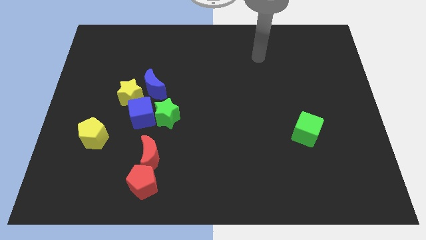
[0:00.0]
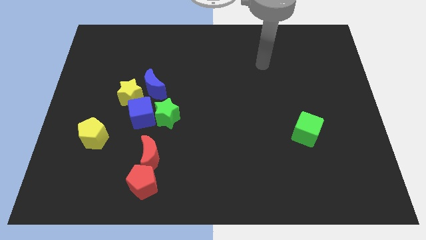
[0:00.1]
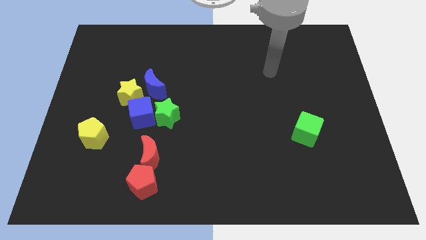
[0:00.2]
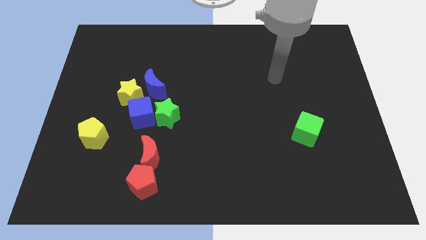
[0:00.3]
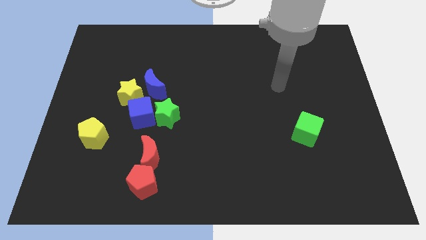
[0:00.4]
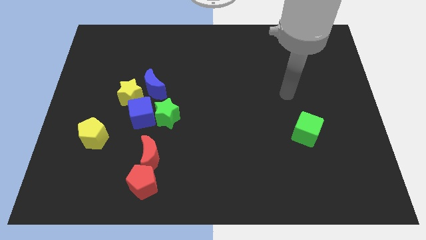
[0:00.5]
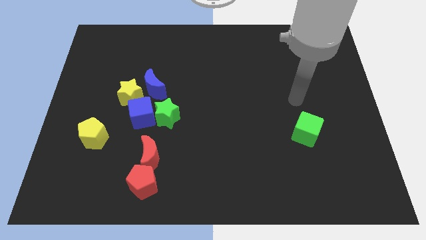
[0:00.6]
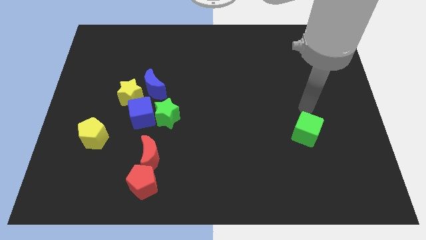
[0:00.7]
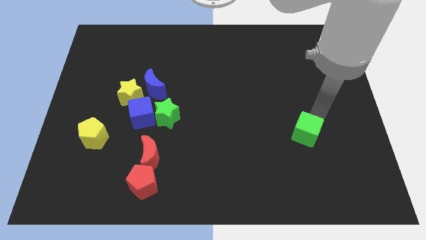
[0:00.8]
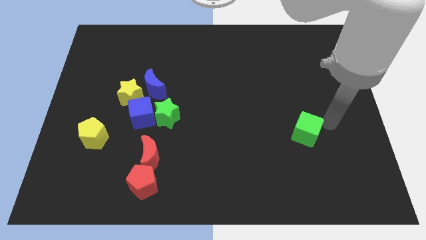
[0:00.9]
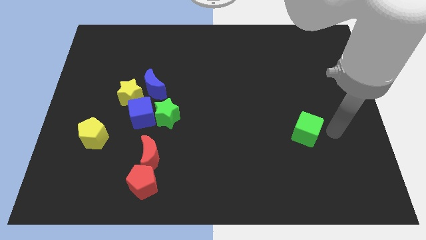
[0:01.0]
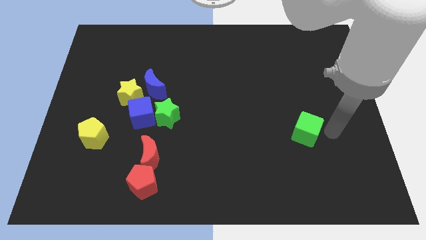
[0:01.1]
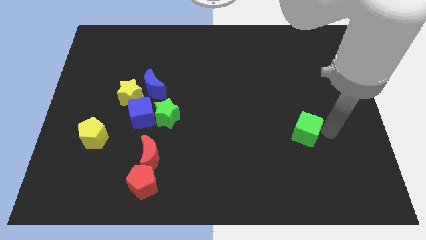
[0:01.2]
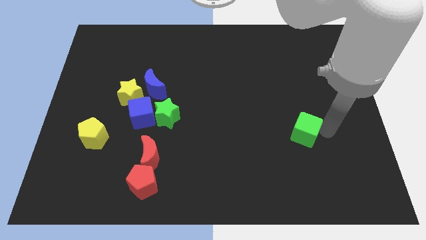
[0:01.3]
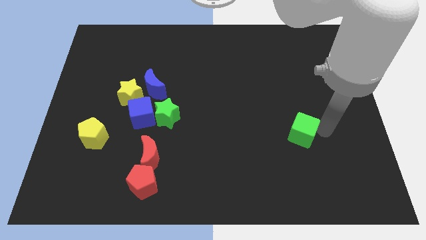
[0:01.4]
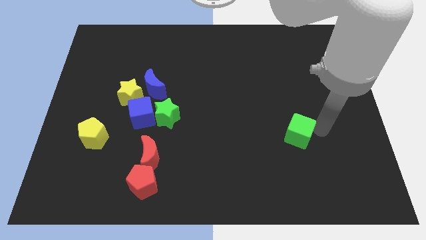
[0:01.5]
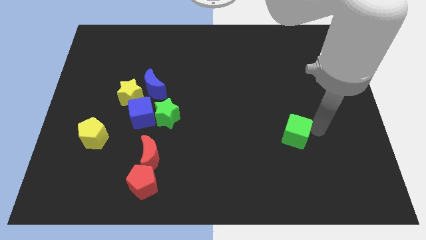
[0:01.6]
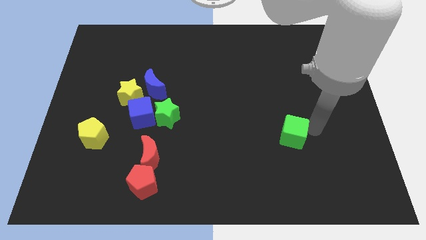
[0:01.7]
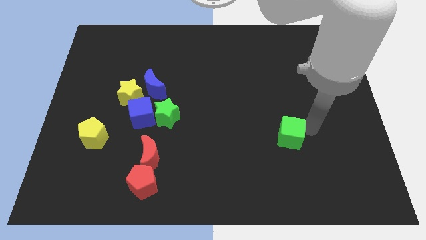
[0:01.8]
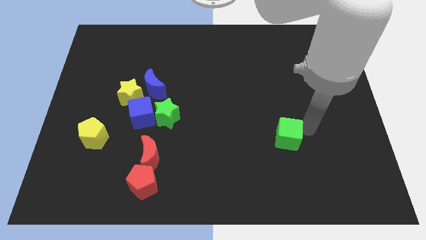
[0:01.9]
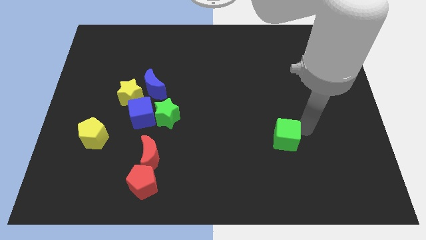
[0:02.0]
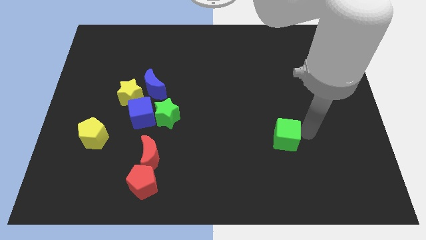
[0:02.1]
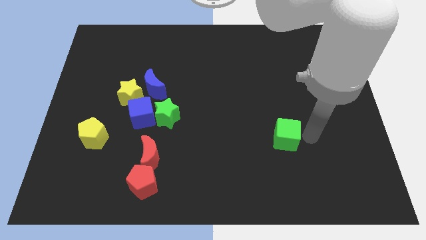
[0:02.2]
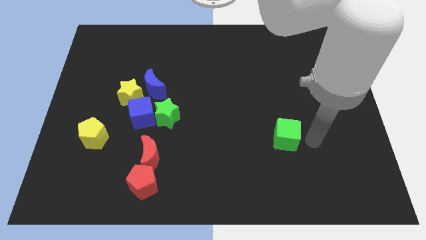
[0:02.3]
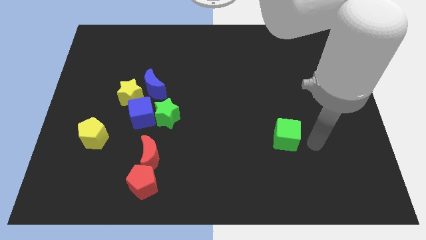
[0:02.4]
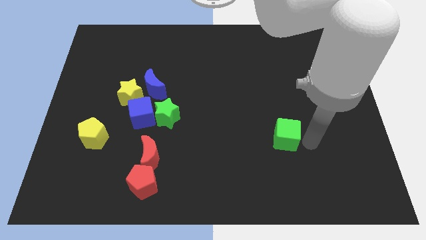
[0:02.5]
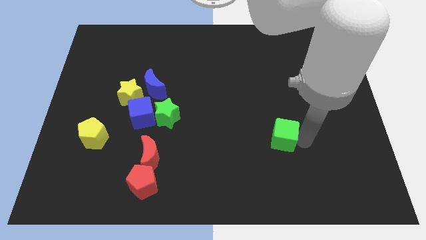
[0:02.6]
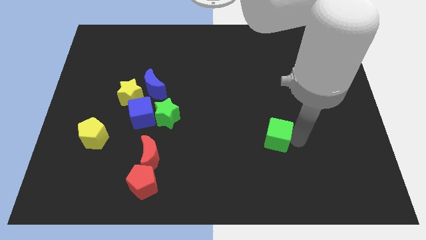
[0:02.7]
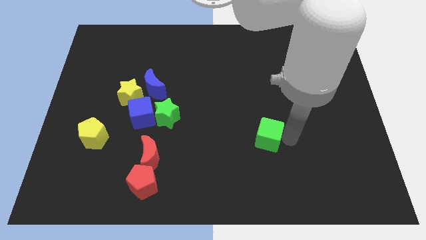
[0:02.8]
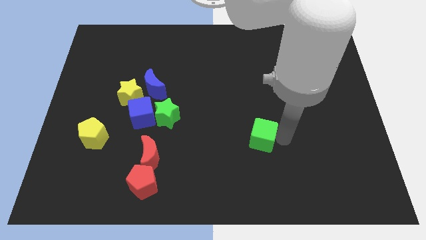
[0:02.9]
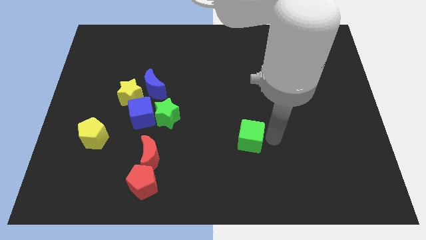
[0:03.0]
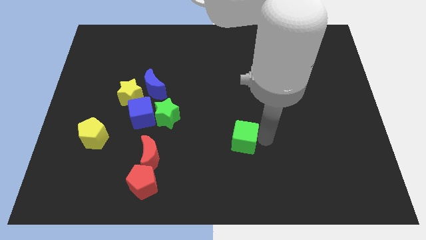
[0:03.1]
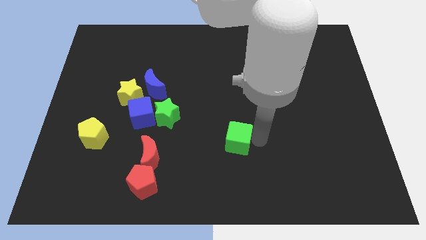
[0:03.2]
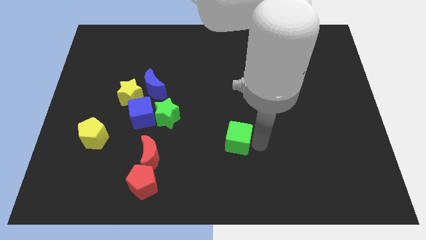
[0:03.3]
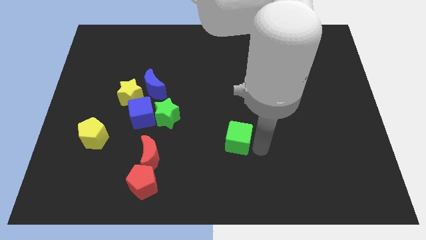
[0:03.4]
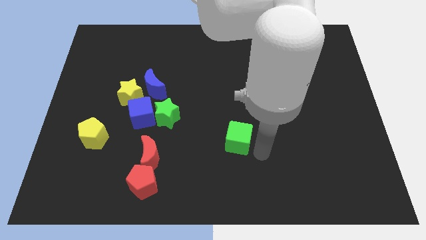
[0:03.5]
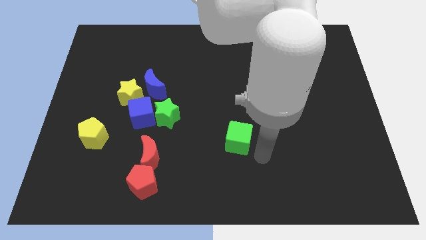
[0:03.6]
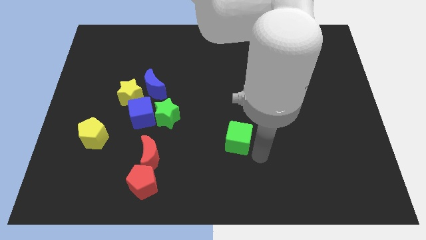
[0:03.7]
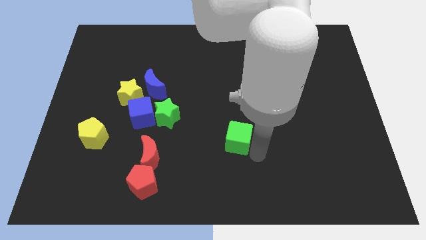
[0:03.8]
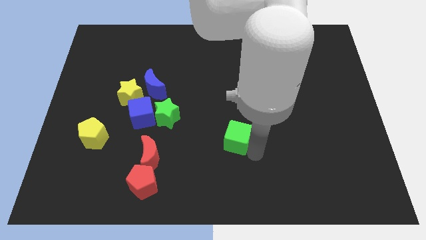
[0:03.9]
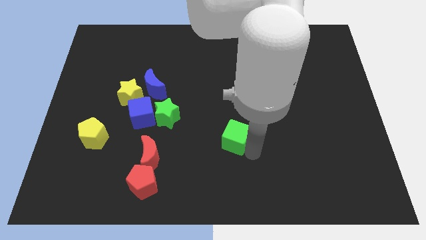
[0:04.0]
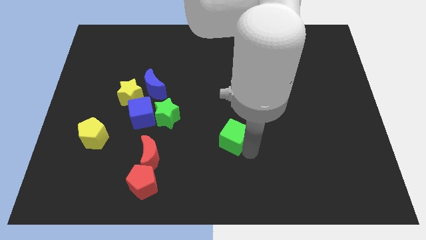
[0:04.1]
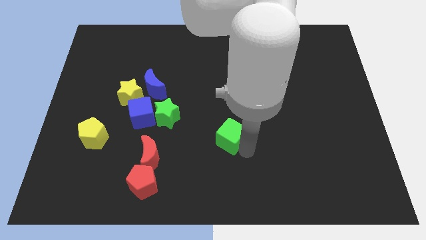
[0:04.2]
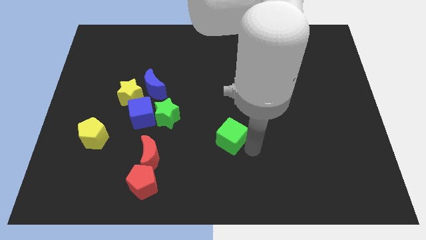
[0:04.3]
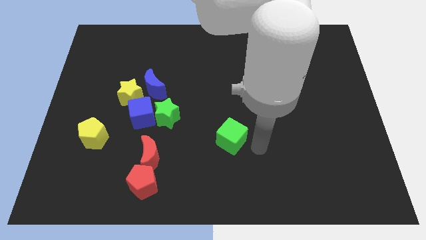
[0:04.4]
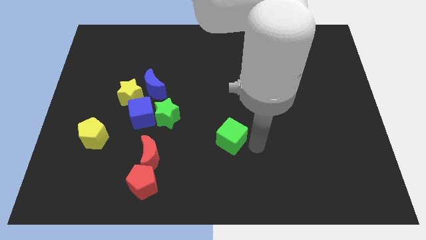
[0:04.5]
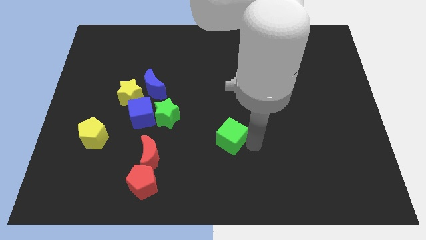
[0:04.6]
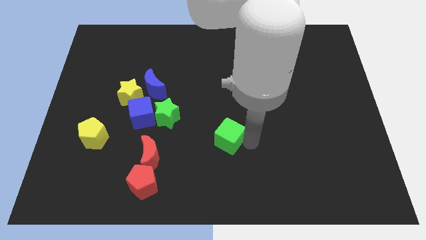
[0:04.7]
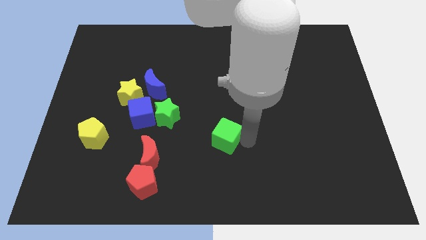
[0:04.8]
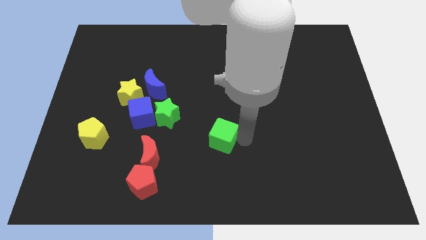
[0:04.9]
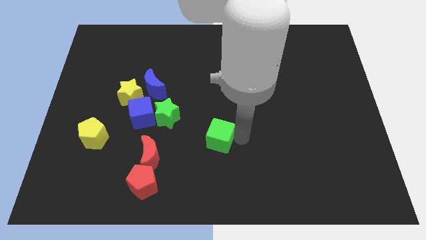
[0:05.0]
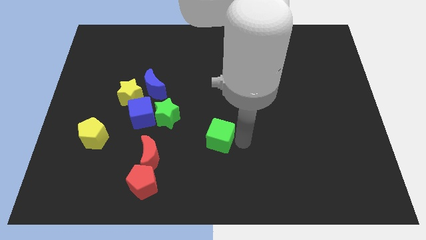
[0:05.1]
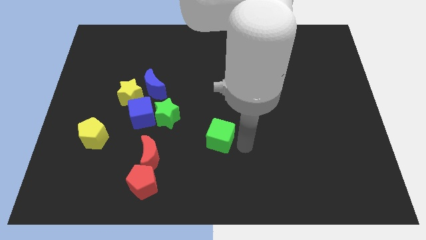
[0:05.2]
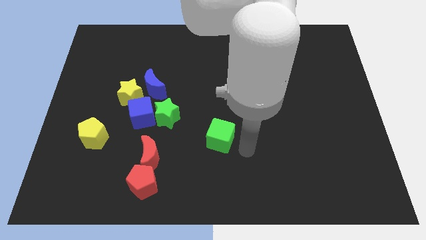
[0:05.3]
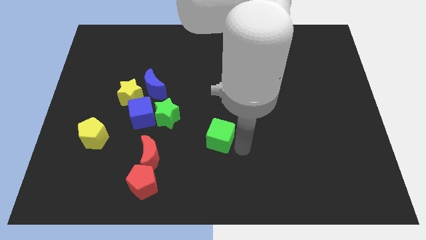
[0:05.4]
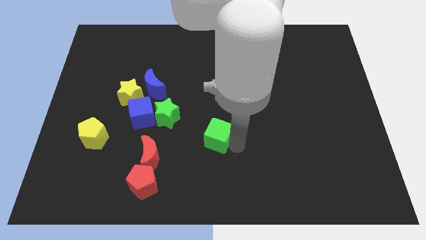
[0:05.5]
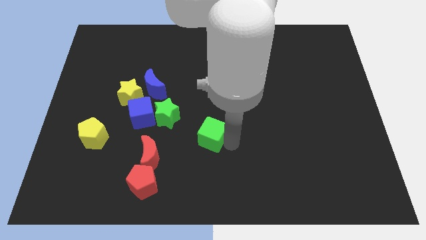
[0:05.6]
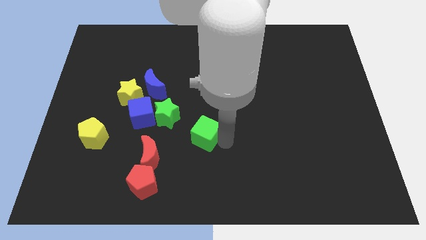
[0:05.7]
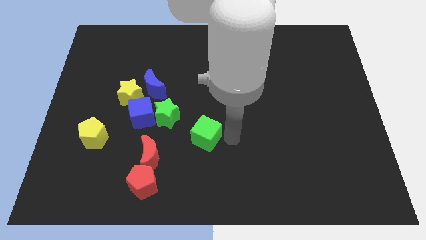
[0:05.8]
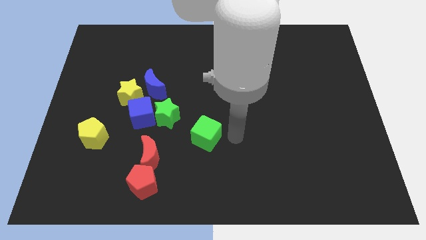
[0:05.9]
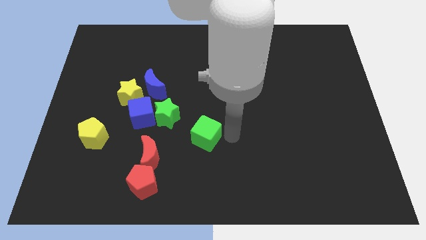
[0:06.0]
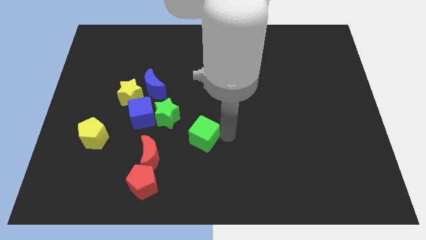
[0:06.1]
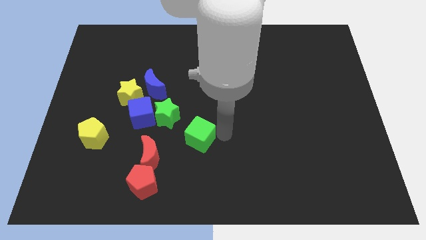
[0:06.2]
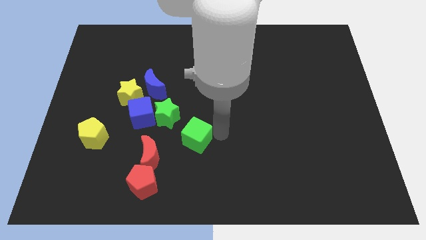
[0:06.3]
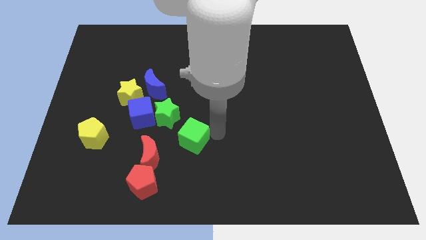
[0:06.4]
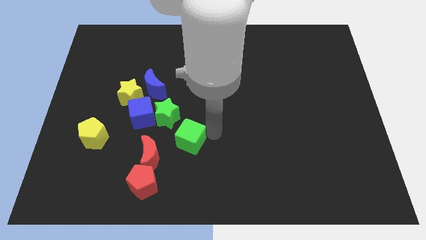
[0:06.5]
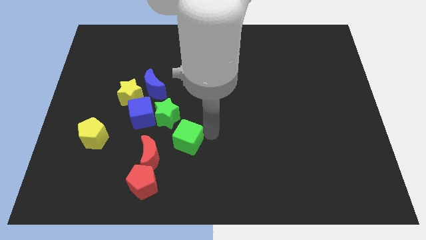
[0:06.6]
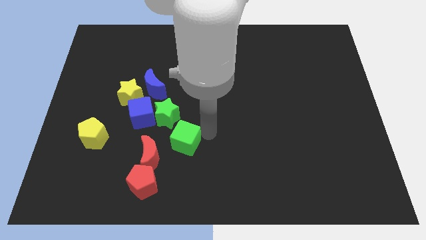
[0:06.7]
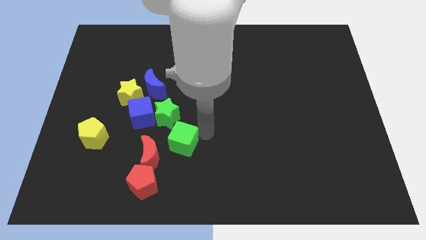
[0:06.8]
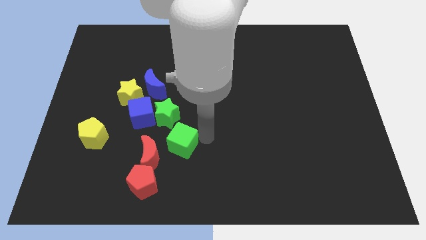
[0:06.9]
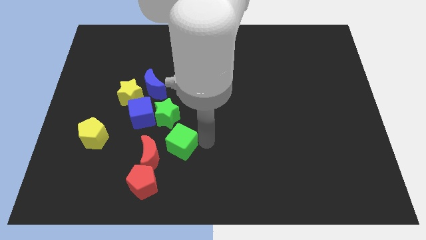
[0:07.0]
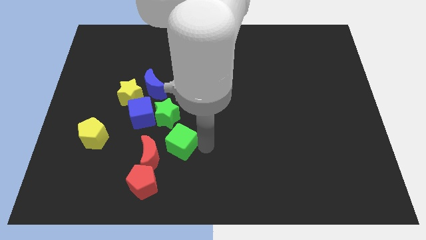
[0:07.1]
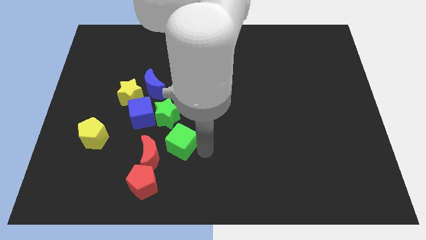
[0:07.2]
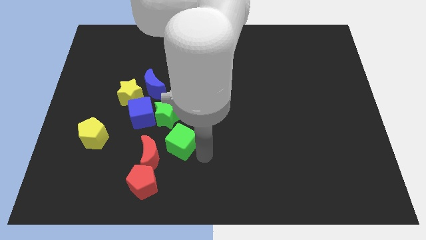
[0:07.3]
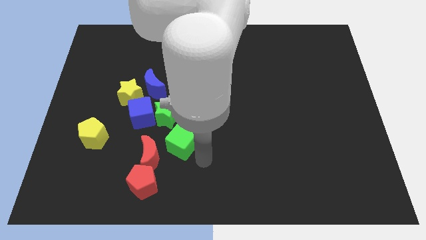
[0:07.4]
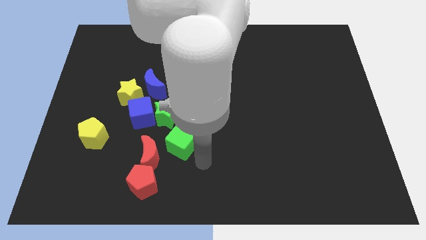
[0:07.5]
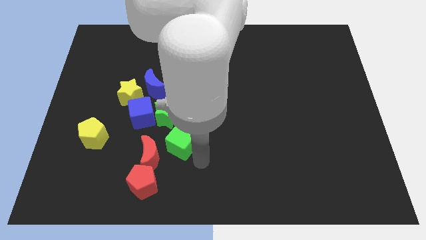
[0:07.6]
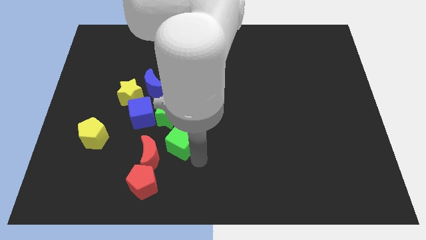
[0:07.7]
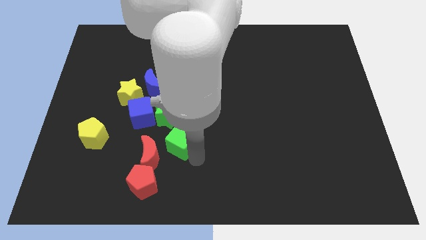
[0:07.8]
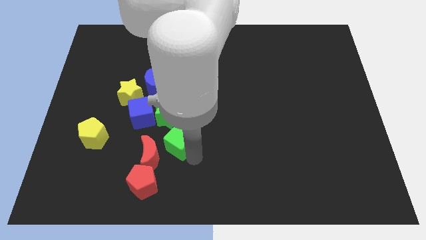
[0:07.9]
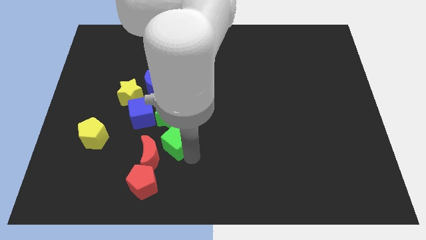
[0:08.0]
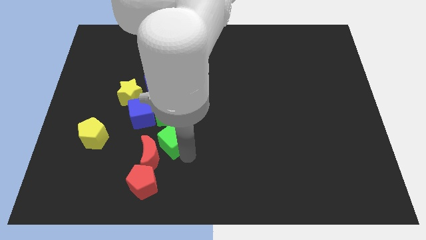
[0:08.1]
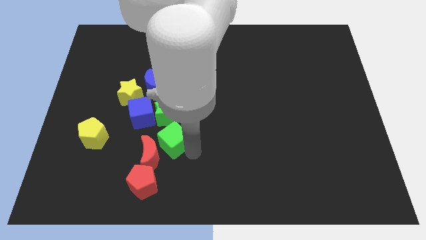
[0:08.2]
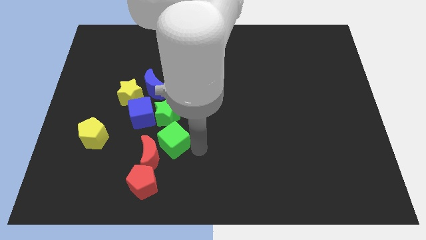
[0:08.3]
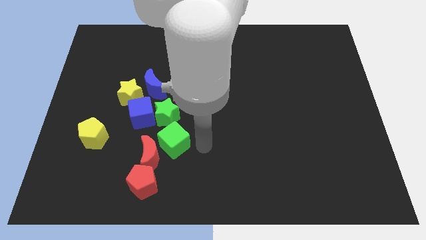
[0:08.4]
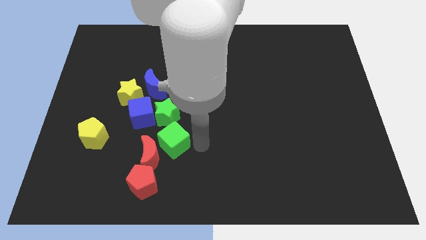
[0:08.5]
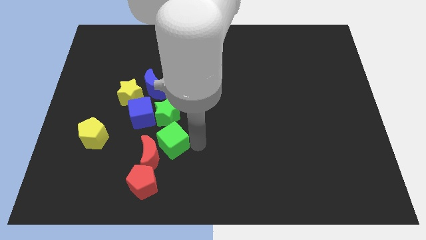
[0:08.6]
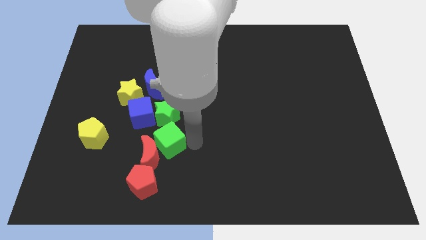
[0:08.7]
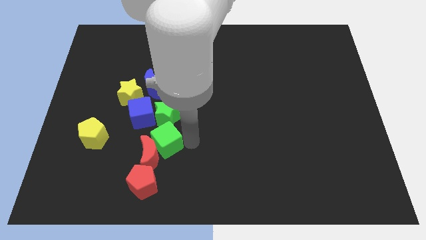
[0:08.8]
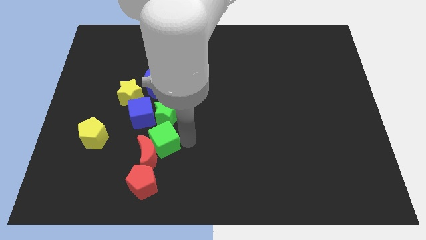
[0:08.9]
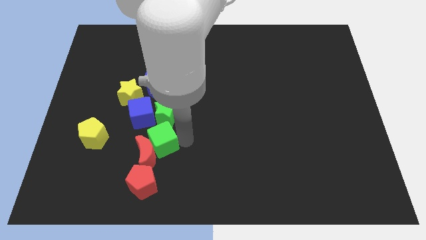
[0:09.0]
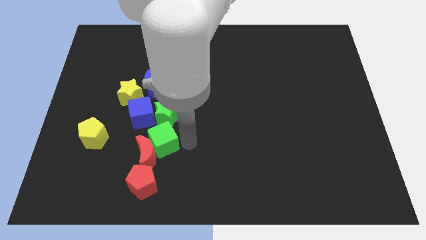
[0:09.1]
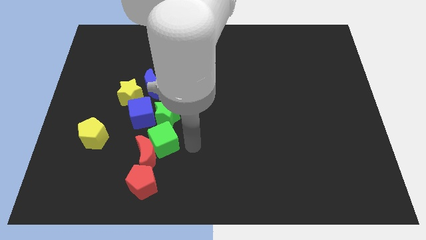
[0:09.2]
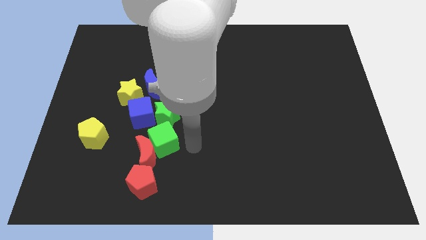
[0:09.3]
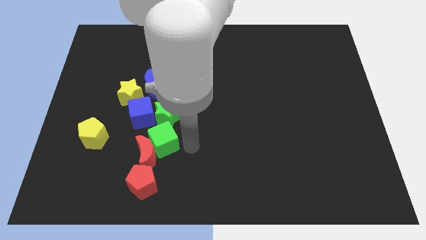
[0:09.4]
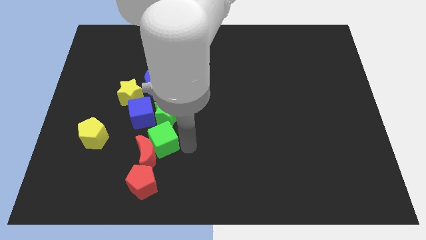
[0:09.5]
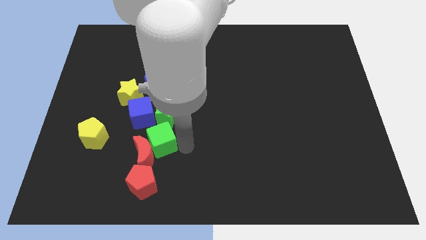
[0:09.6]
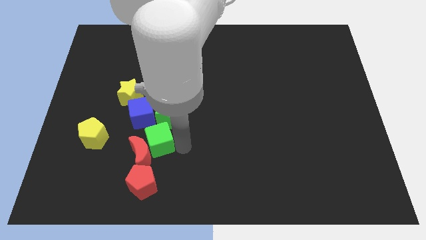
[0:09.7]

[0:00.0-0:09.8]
push the green cube below the blue cube
